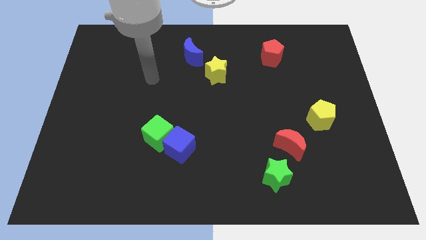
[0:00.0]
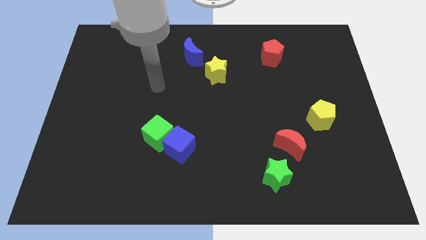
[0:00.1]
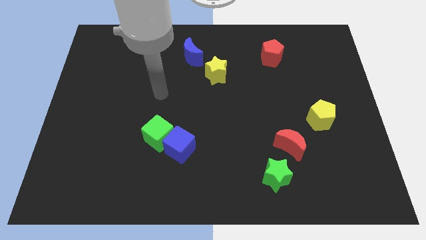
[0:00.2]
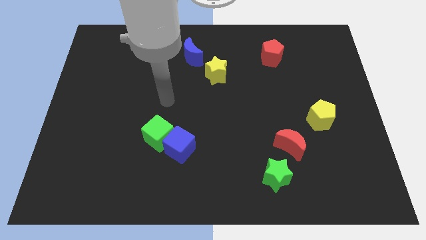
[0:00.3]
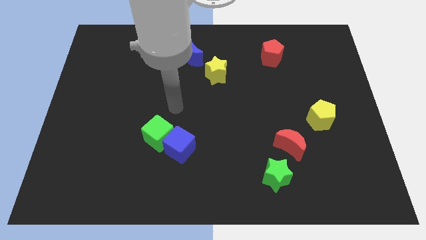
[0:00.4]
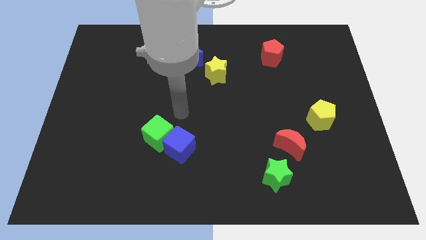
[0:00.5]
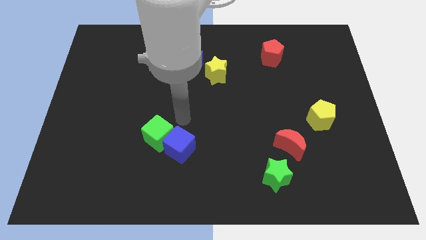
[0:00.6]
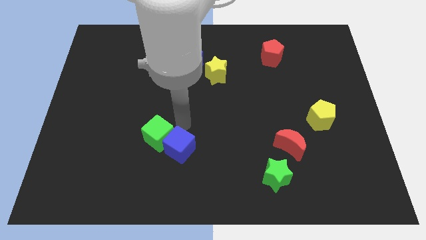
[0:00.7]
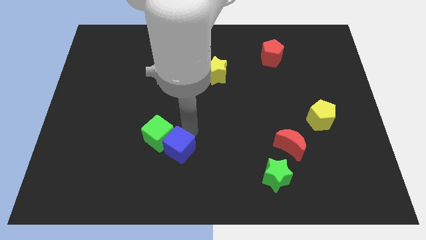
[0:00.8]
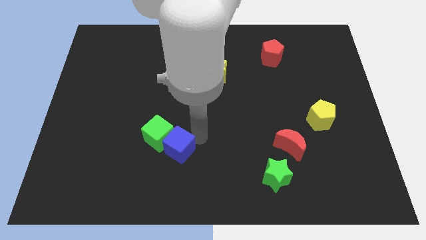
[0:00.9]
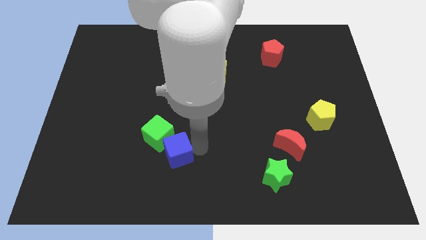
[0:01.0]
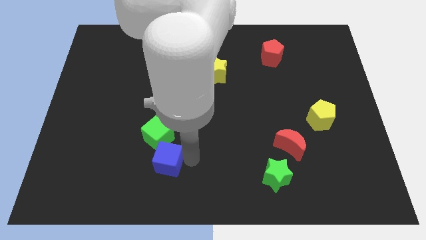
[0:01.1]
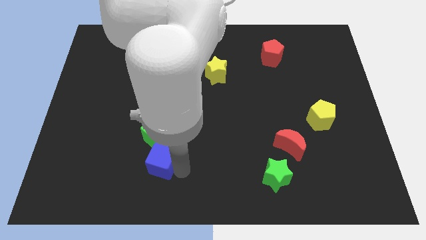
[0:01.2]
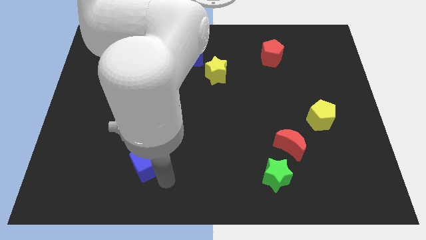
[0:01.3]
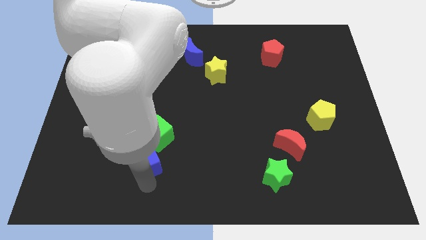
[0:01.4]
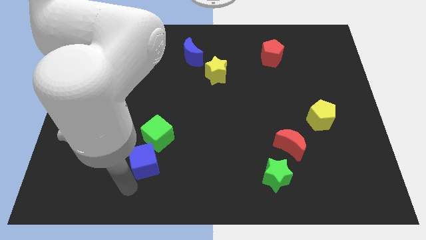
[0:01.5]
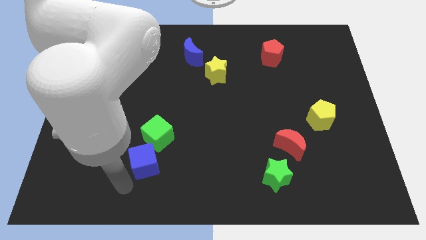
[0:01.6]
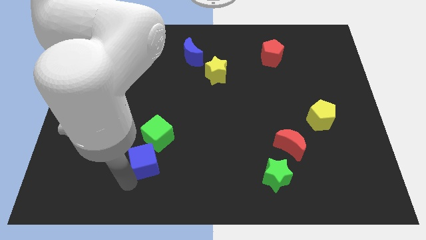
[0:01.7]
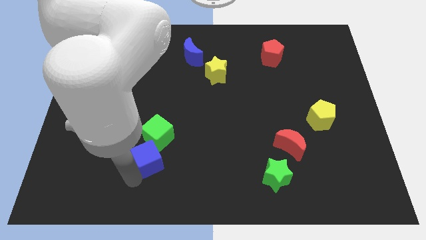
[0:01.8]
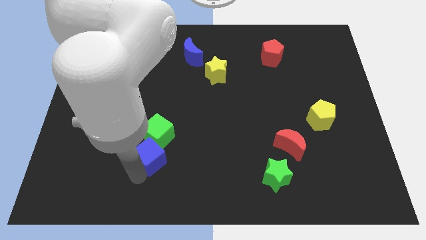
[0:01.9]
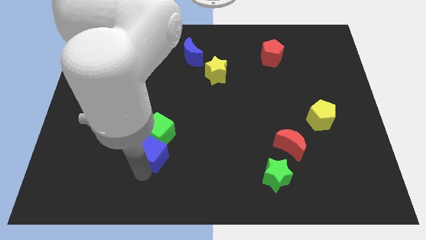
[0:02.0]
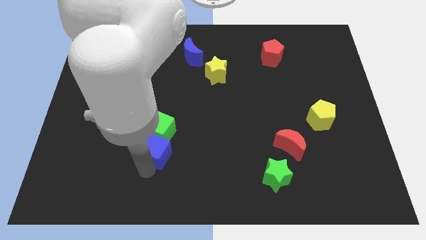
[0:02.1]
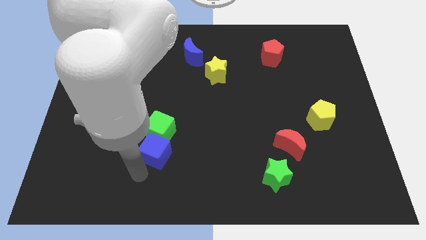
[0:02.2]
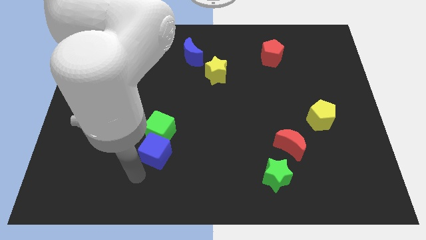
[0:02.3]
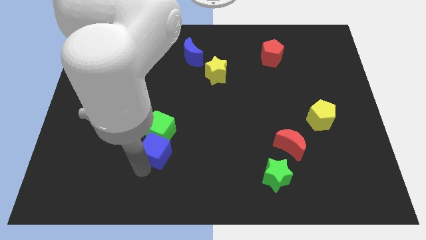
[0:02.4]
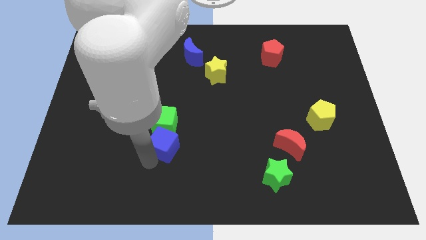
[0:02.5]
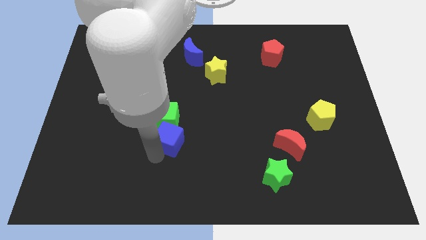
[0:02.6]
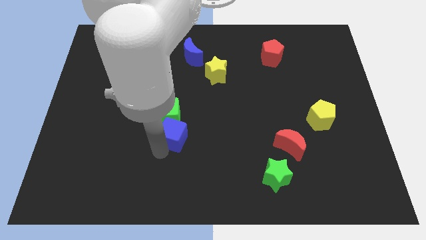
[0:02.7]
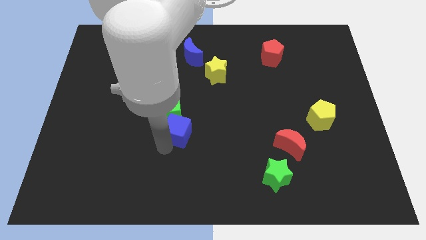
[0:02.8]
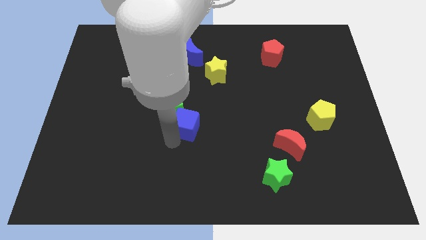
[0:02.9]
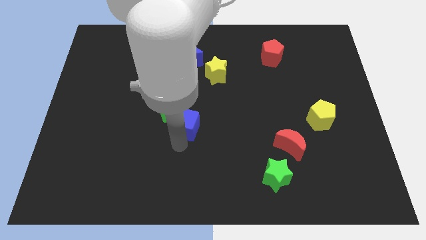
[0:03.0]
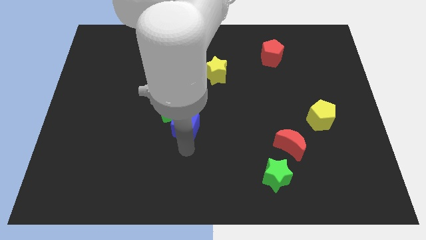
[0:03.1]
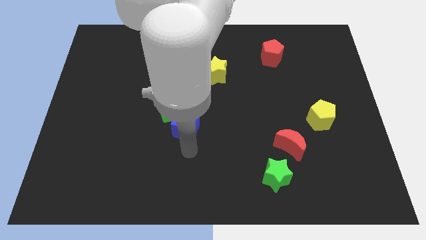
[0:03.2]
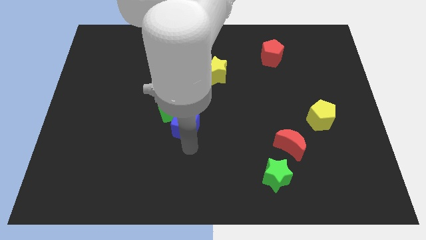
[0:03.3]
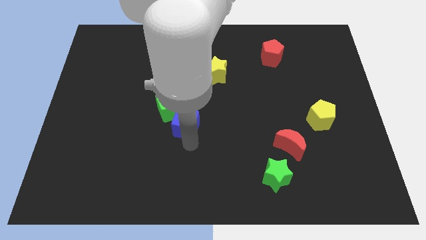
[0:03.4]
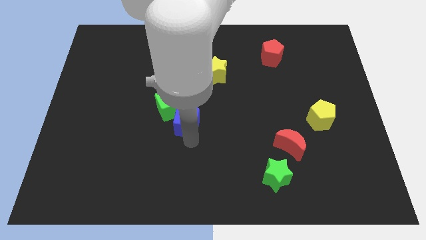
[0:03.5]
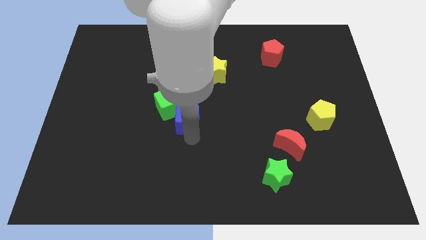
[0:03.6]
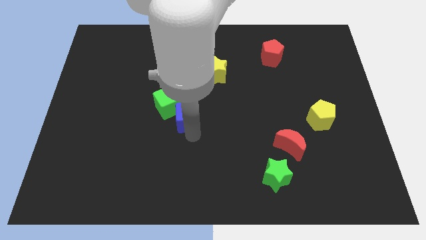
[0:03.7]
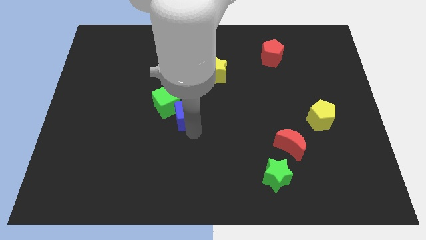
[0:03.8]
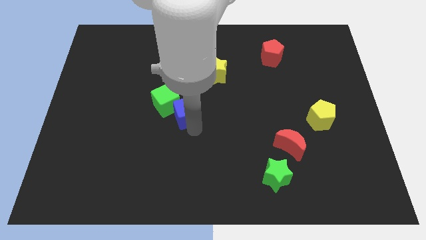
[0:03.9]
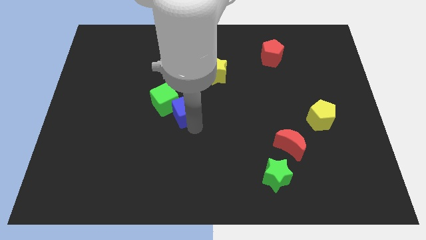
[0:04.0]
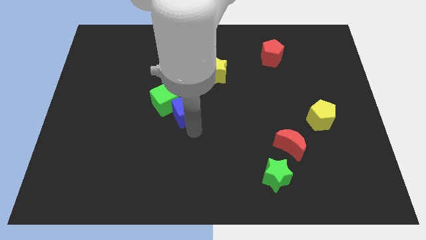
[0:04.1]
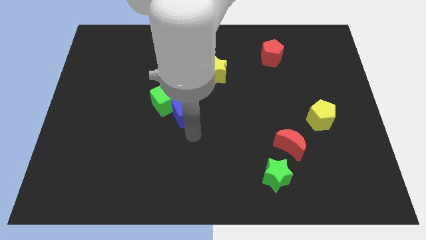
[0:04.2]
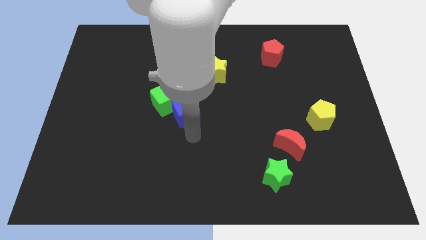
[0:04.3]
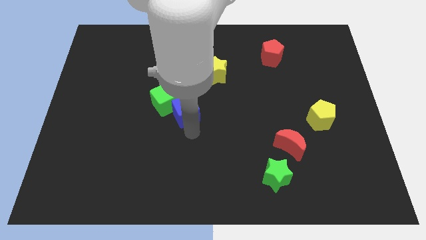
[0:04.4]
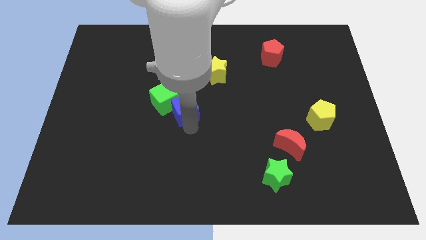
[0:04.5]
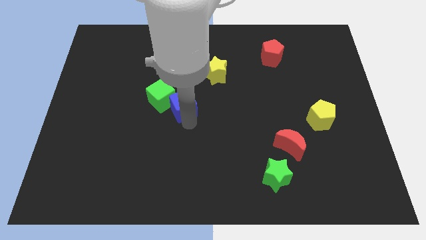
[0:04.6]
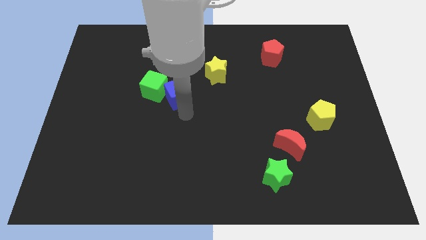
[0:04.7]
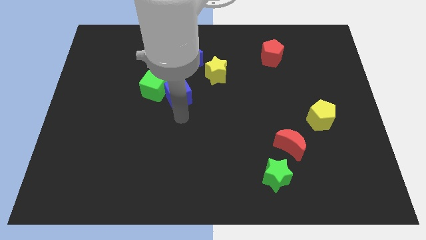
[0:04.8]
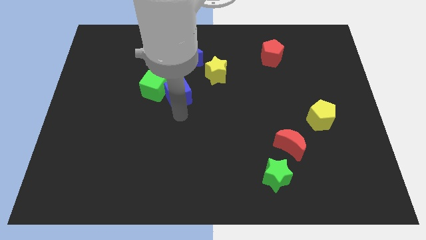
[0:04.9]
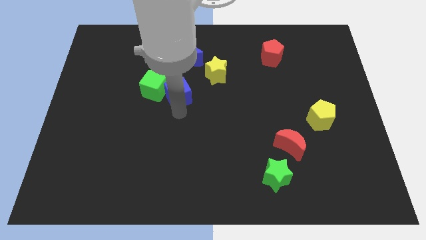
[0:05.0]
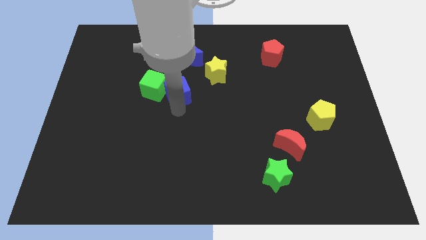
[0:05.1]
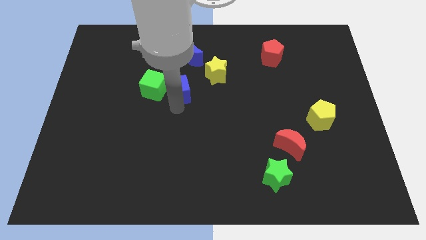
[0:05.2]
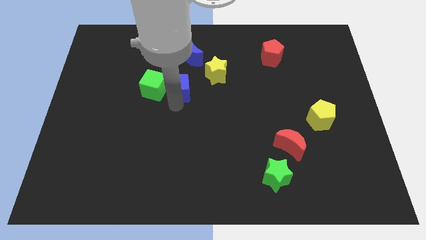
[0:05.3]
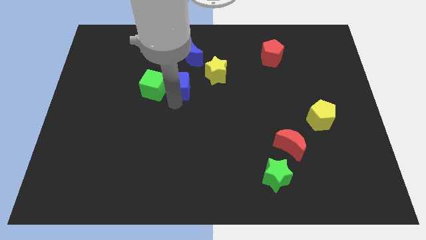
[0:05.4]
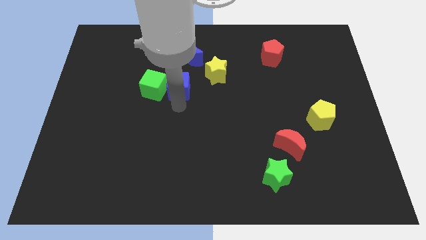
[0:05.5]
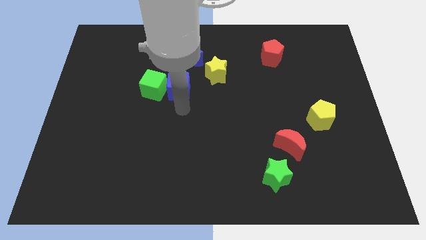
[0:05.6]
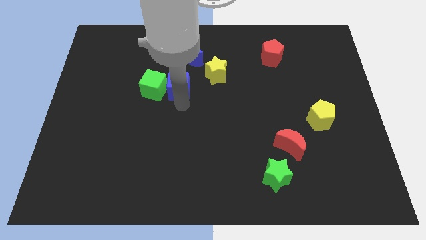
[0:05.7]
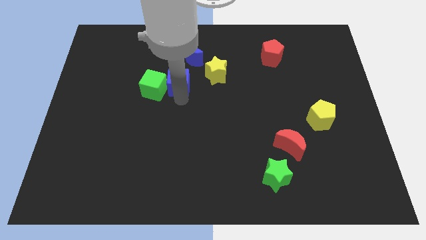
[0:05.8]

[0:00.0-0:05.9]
slide the blue cube left of the yellow star
